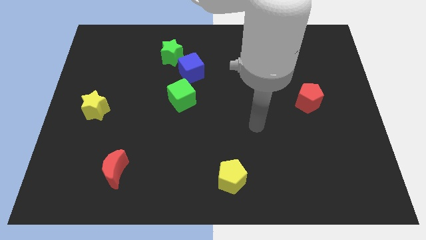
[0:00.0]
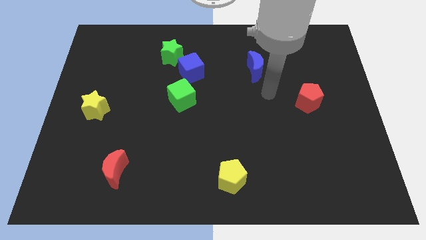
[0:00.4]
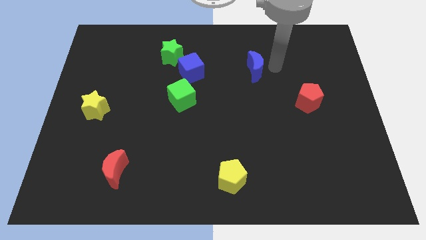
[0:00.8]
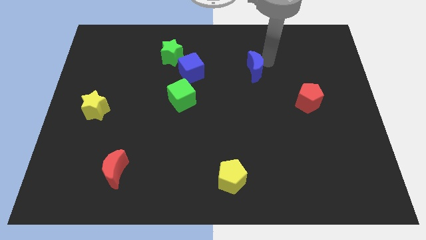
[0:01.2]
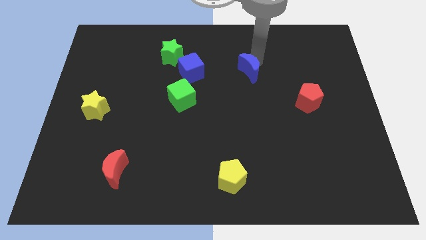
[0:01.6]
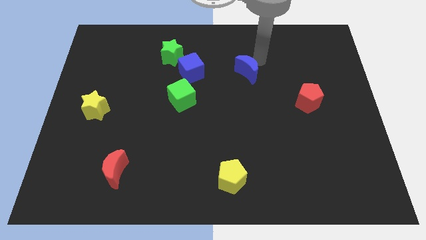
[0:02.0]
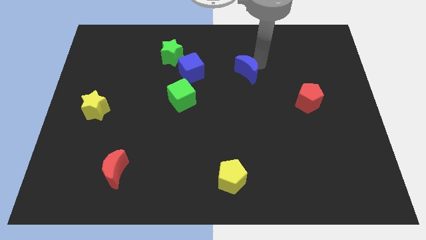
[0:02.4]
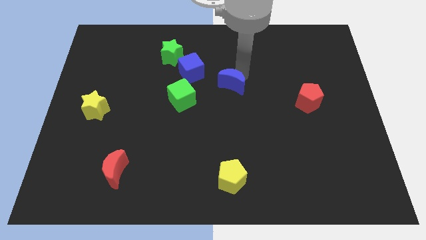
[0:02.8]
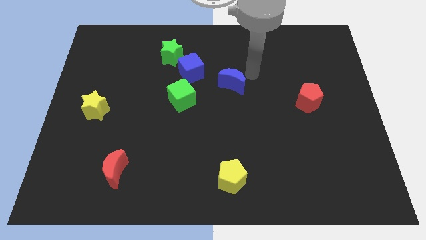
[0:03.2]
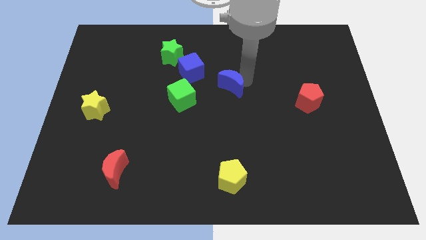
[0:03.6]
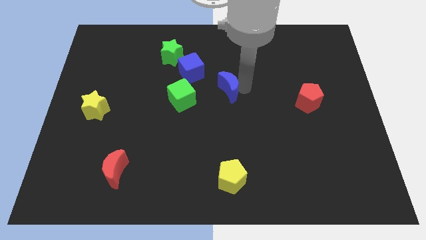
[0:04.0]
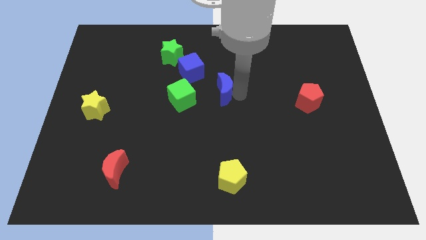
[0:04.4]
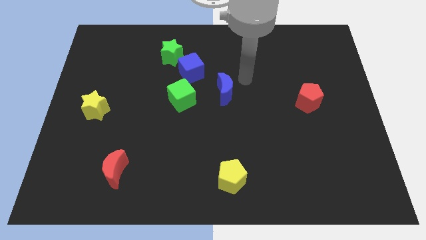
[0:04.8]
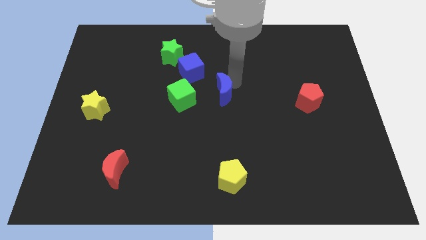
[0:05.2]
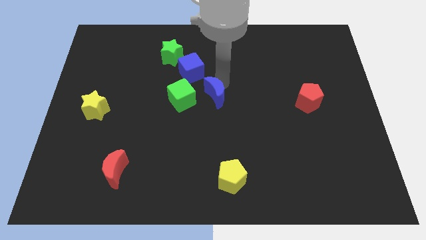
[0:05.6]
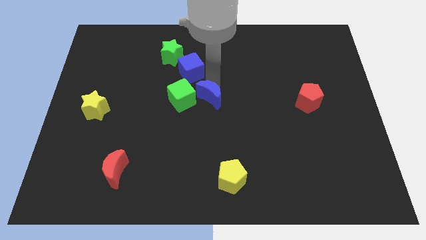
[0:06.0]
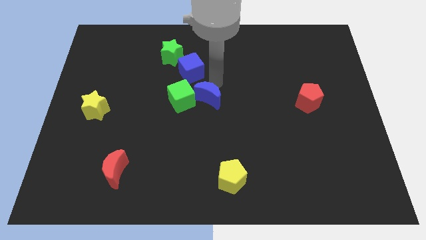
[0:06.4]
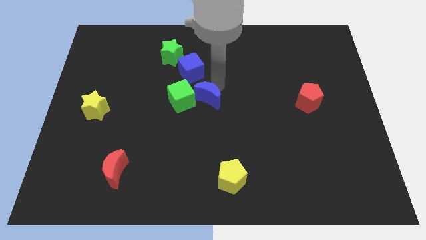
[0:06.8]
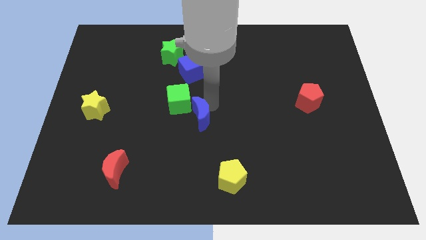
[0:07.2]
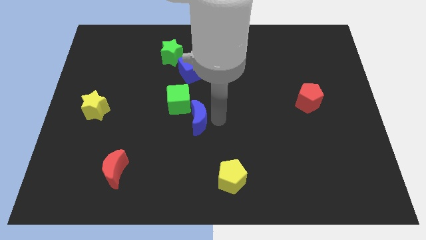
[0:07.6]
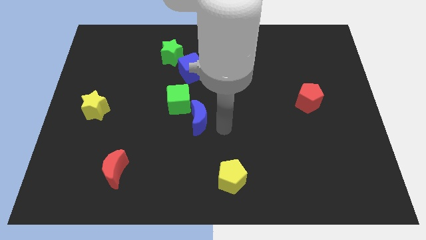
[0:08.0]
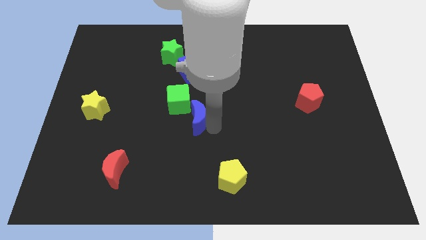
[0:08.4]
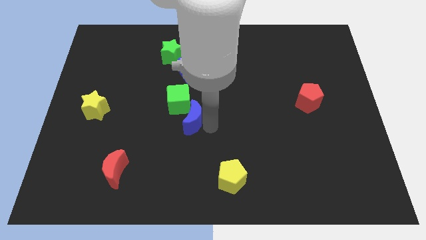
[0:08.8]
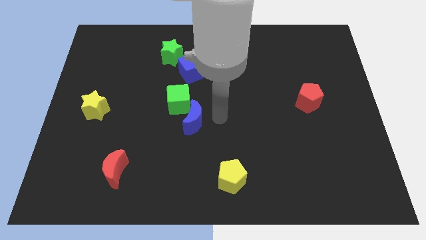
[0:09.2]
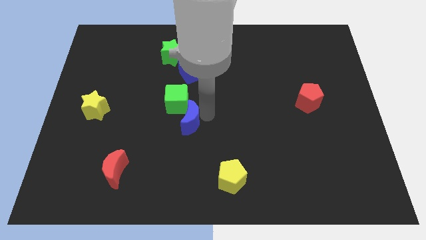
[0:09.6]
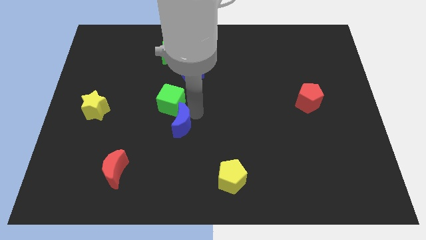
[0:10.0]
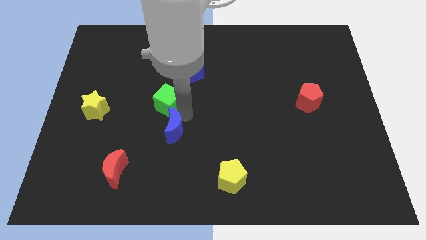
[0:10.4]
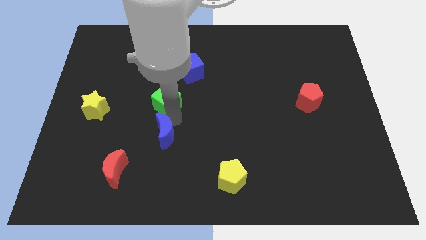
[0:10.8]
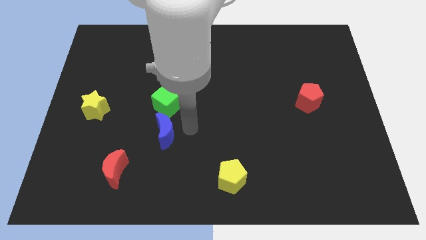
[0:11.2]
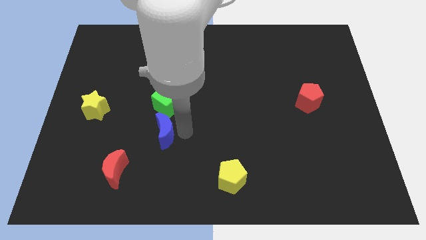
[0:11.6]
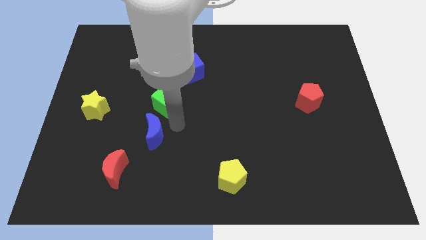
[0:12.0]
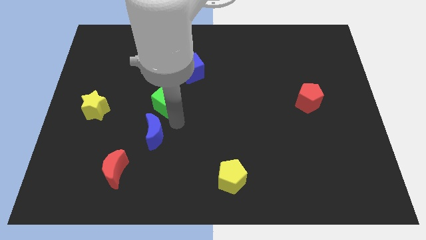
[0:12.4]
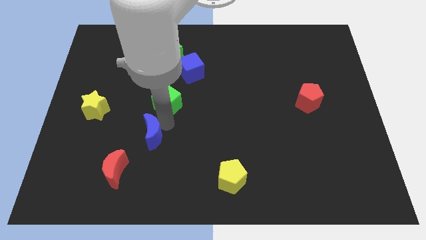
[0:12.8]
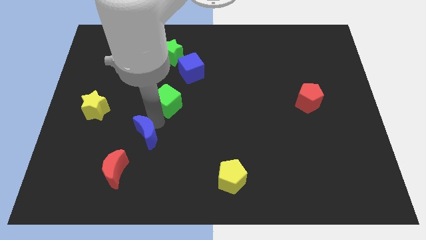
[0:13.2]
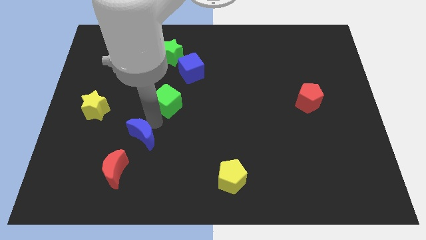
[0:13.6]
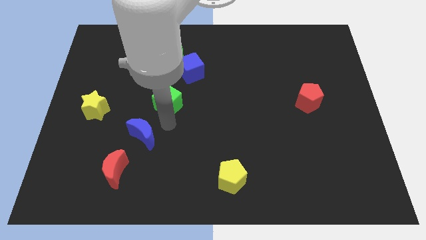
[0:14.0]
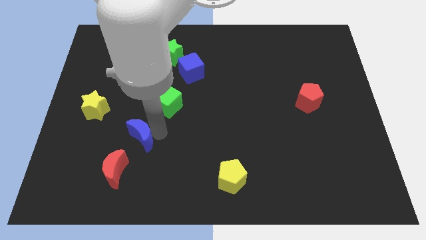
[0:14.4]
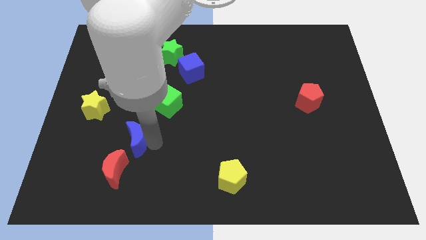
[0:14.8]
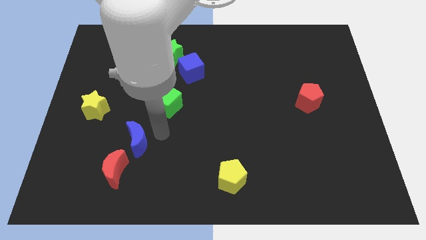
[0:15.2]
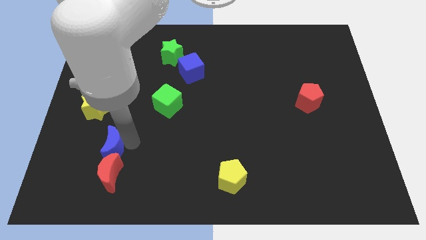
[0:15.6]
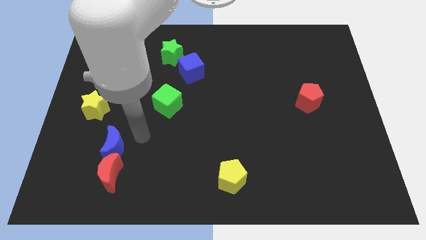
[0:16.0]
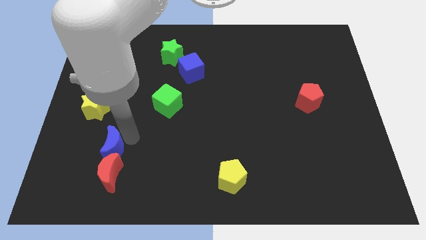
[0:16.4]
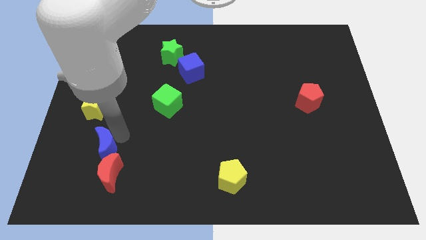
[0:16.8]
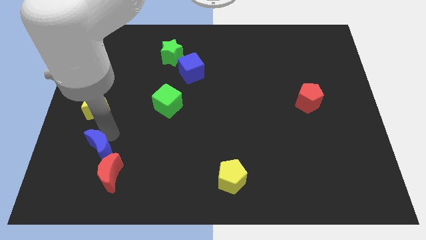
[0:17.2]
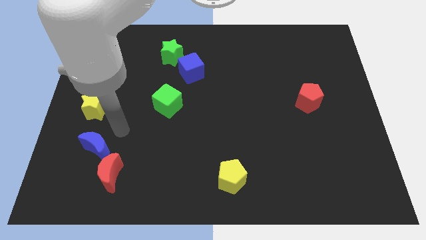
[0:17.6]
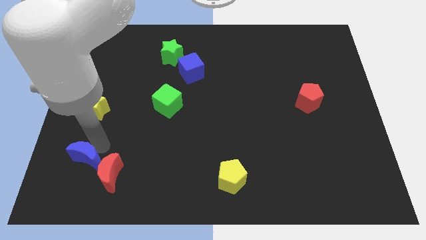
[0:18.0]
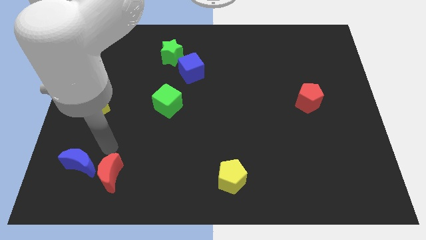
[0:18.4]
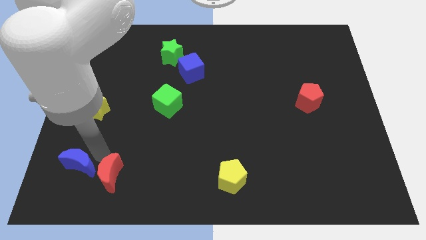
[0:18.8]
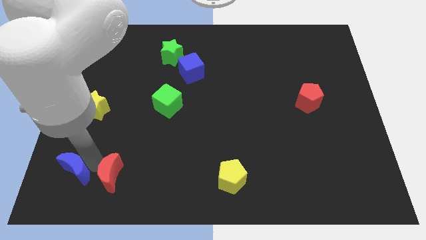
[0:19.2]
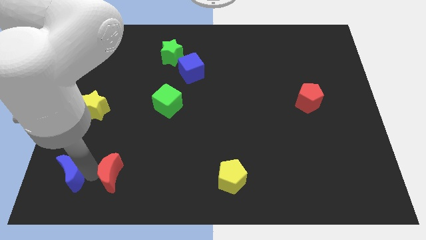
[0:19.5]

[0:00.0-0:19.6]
slide the blue moon to the bottom left corner

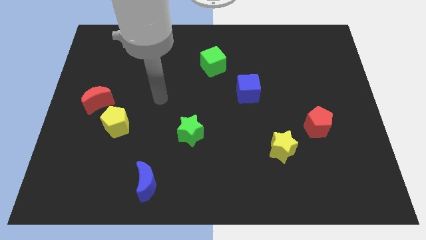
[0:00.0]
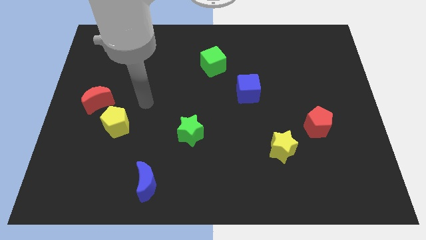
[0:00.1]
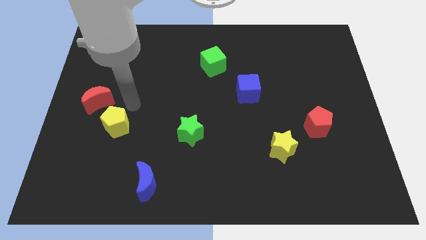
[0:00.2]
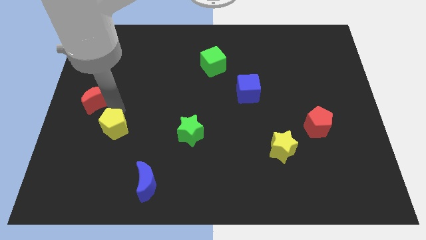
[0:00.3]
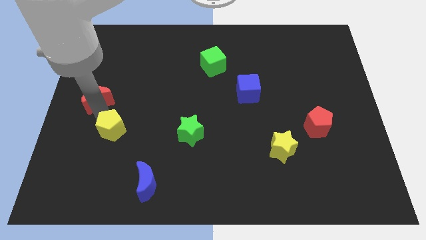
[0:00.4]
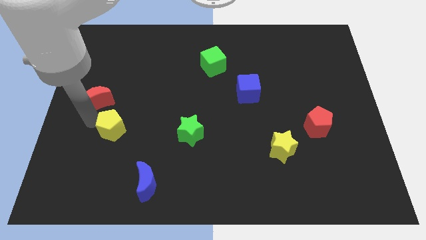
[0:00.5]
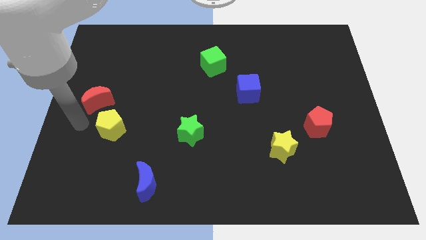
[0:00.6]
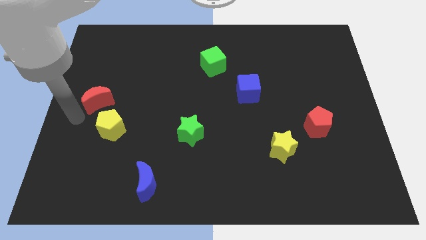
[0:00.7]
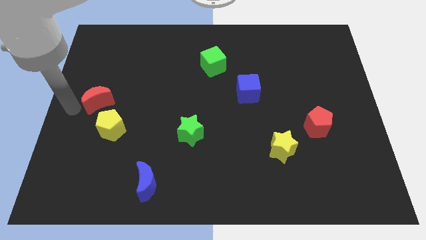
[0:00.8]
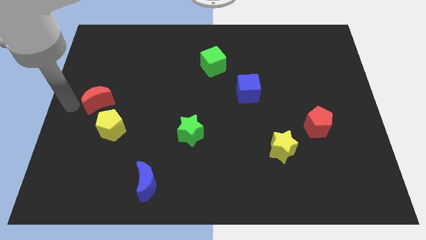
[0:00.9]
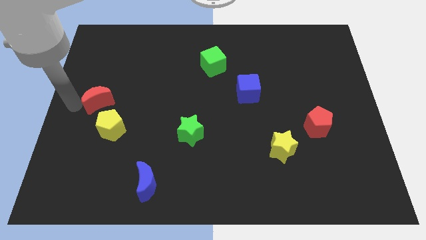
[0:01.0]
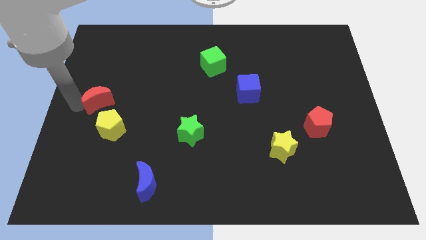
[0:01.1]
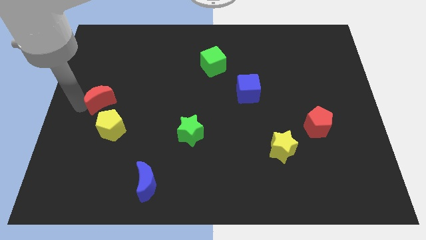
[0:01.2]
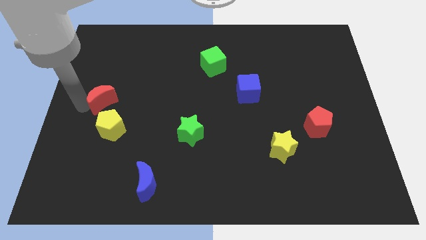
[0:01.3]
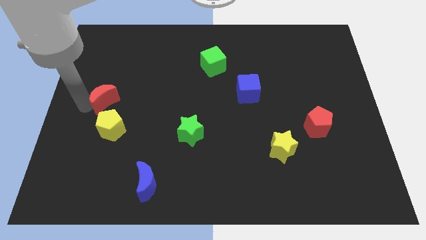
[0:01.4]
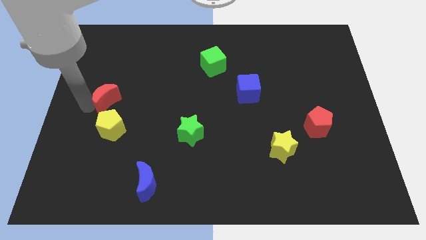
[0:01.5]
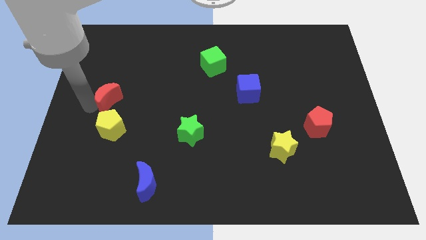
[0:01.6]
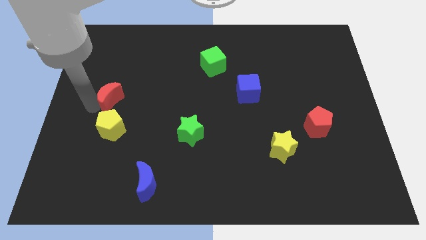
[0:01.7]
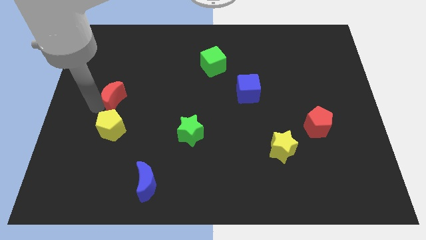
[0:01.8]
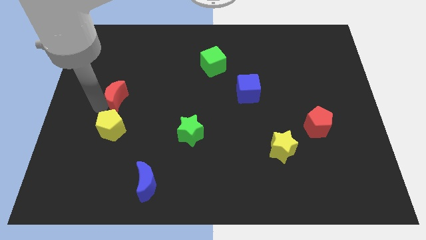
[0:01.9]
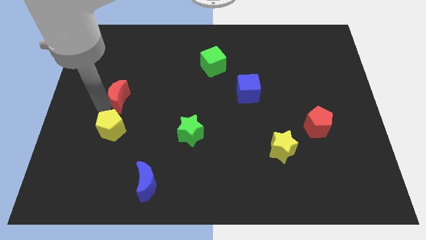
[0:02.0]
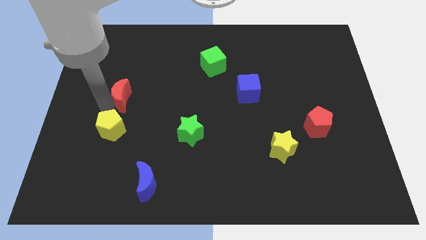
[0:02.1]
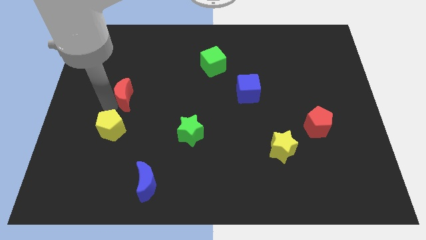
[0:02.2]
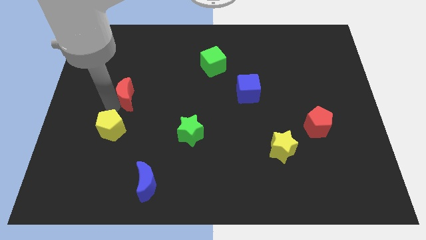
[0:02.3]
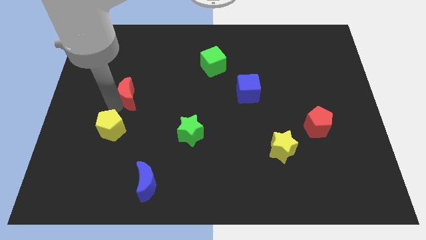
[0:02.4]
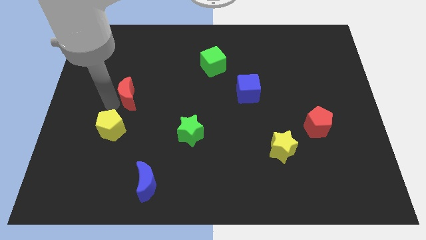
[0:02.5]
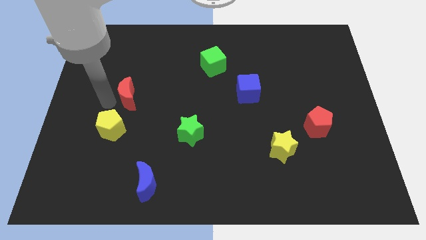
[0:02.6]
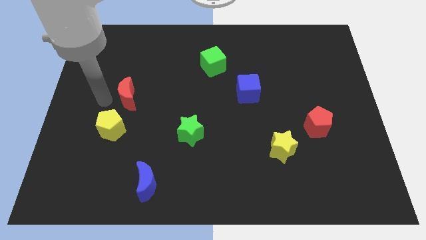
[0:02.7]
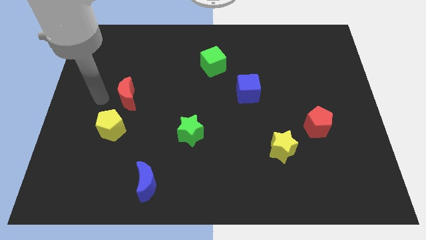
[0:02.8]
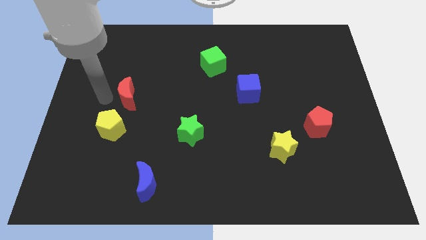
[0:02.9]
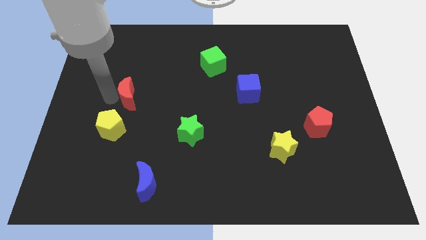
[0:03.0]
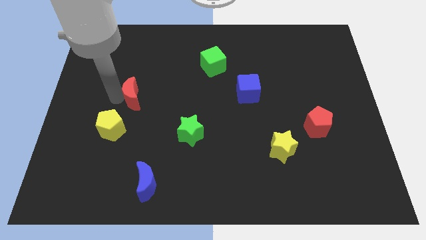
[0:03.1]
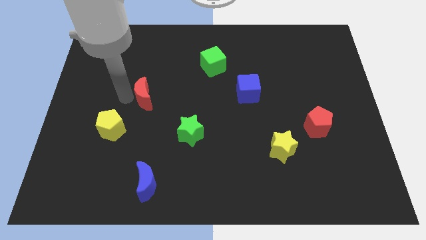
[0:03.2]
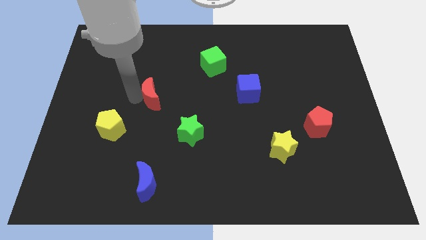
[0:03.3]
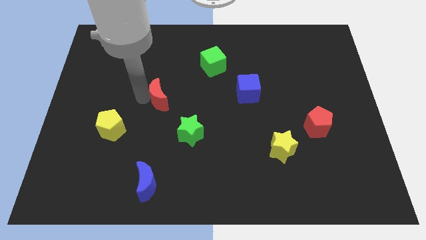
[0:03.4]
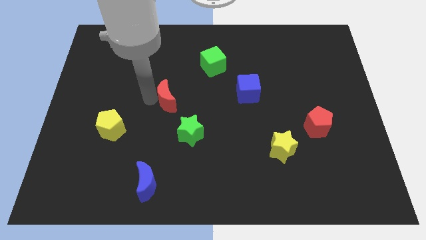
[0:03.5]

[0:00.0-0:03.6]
push the red moon to the center of the board
